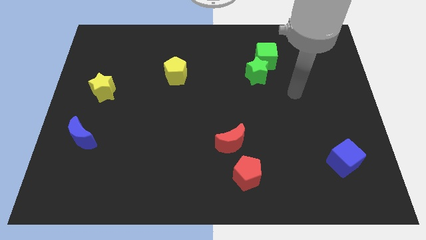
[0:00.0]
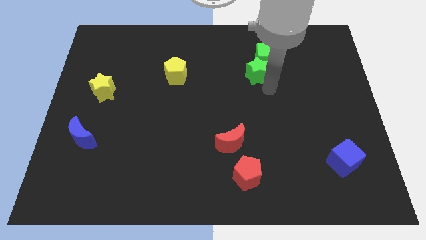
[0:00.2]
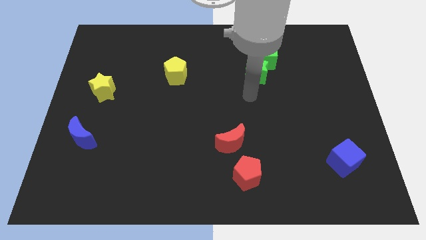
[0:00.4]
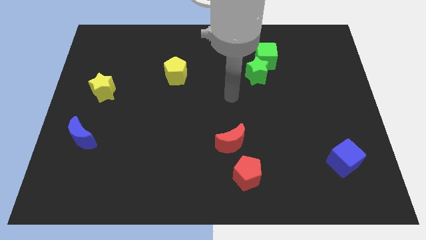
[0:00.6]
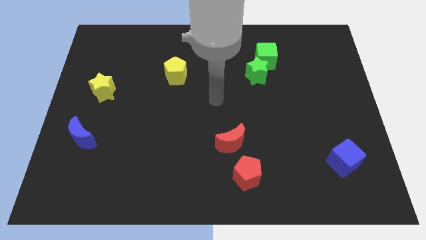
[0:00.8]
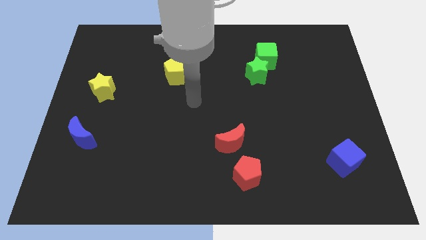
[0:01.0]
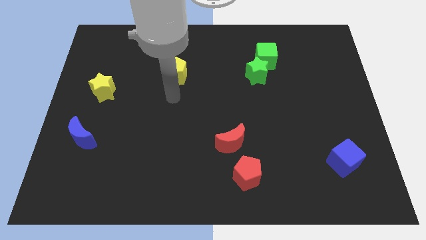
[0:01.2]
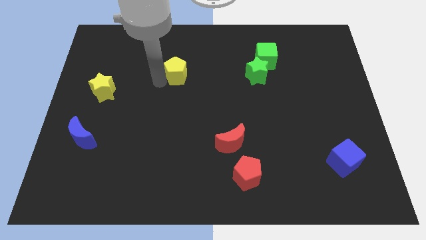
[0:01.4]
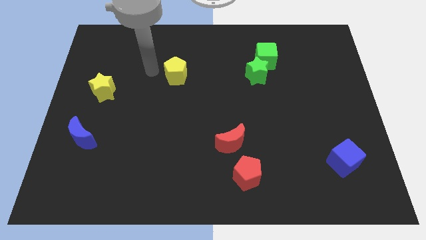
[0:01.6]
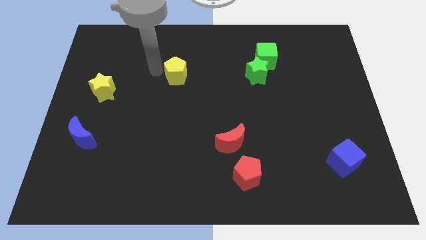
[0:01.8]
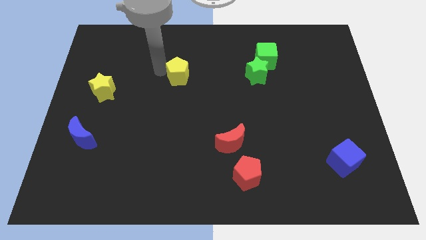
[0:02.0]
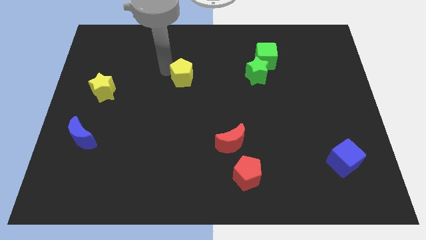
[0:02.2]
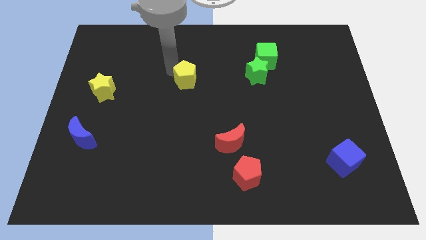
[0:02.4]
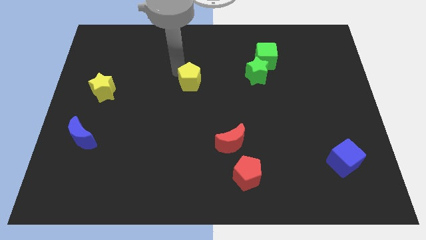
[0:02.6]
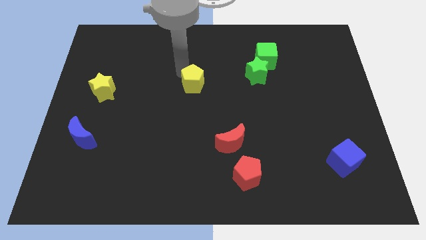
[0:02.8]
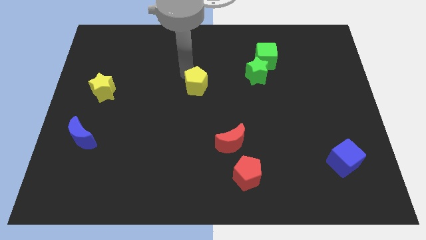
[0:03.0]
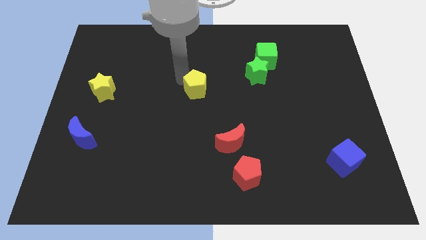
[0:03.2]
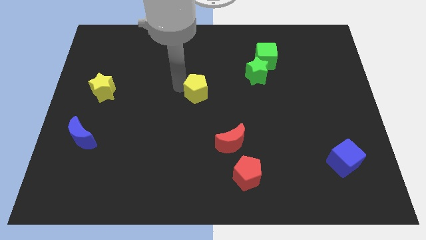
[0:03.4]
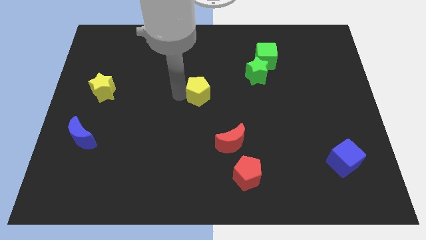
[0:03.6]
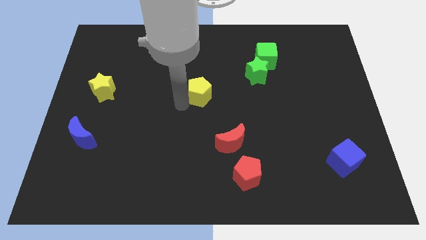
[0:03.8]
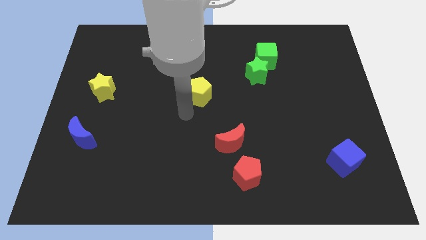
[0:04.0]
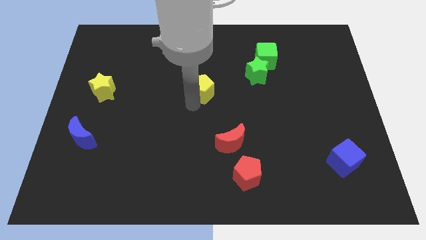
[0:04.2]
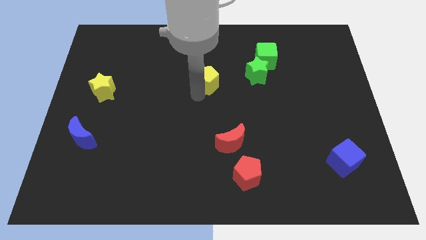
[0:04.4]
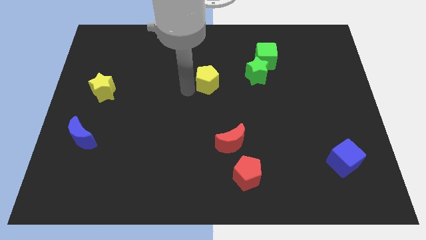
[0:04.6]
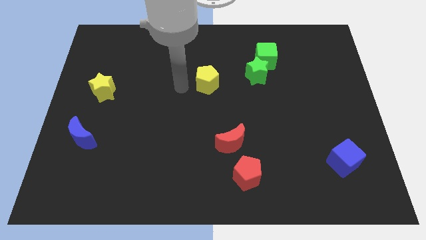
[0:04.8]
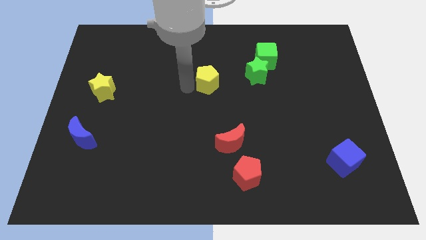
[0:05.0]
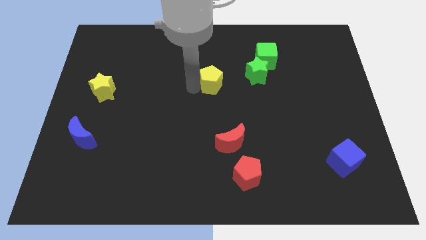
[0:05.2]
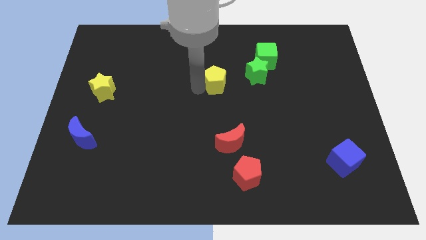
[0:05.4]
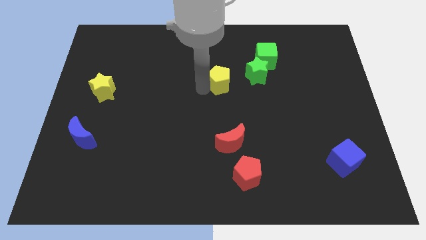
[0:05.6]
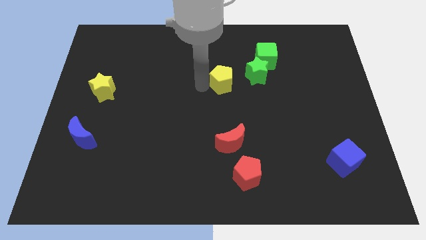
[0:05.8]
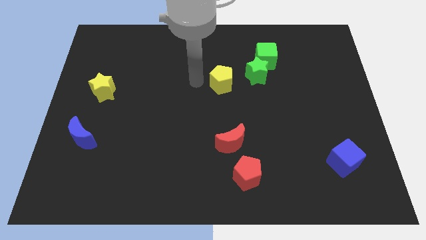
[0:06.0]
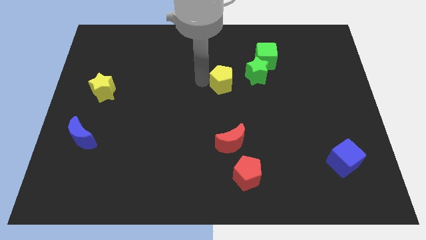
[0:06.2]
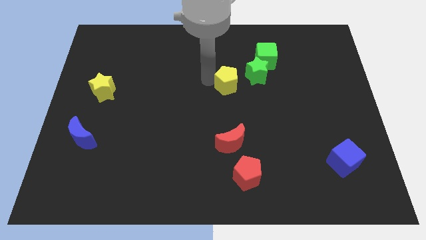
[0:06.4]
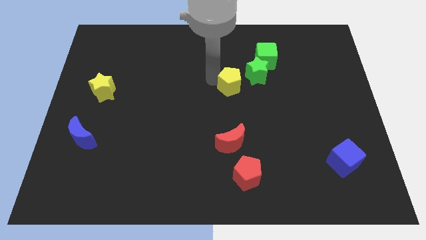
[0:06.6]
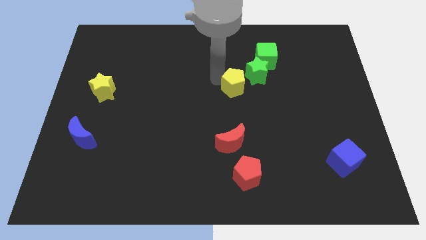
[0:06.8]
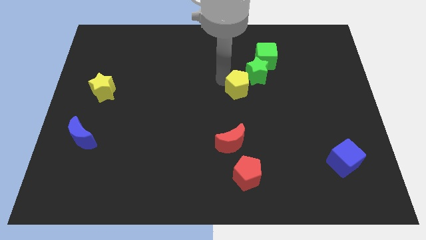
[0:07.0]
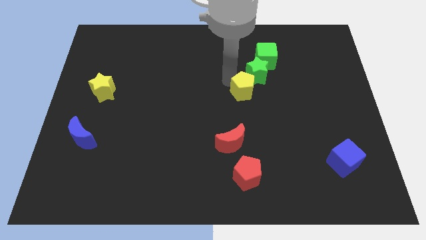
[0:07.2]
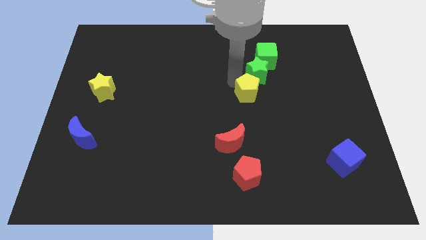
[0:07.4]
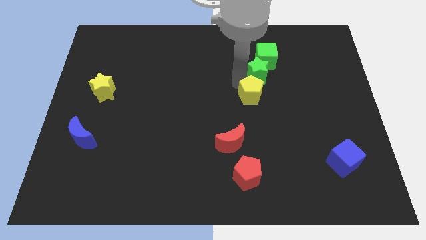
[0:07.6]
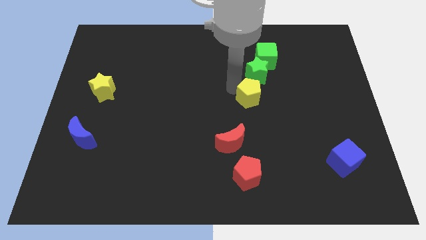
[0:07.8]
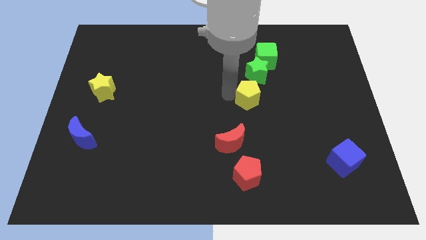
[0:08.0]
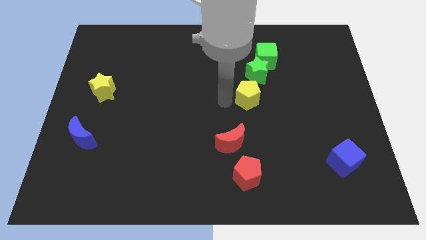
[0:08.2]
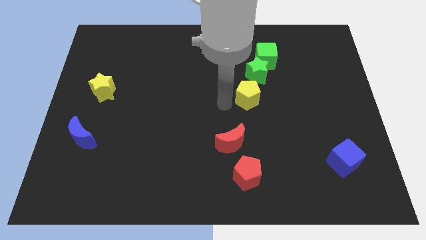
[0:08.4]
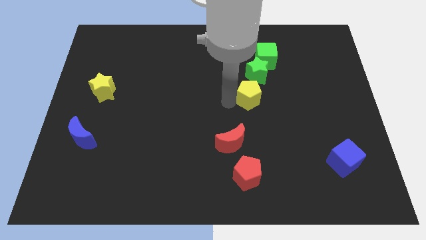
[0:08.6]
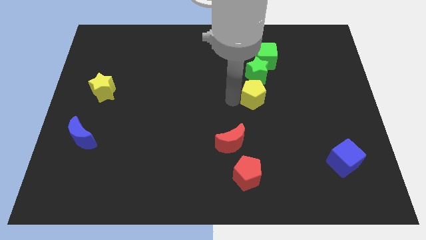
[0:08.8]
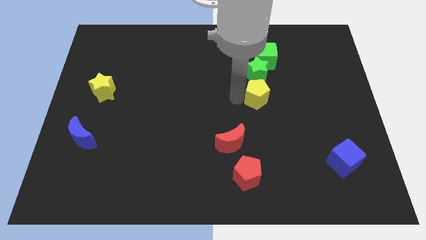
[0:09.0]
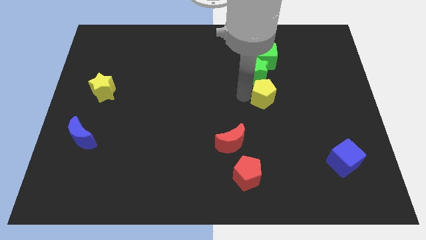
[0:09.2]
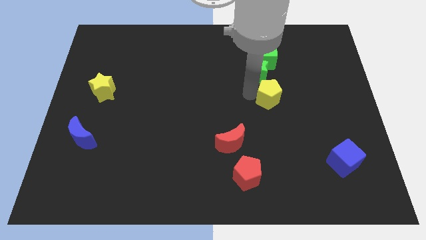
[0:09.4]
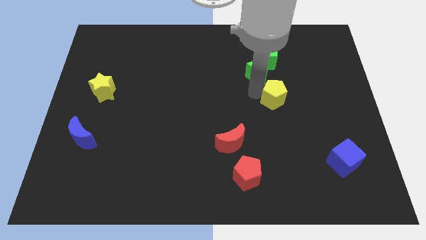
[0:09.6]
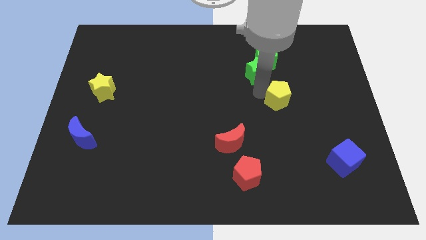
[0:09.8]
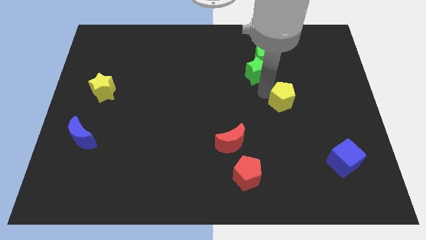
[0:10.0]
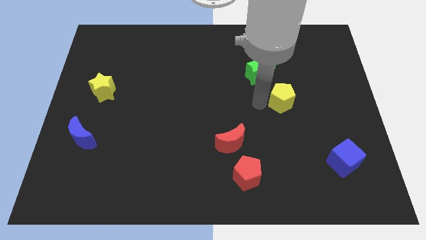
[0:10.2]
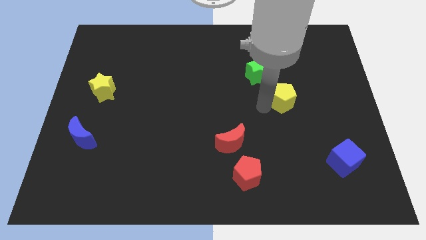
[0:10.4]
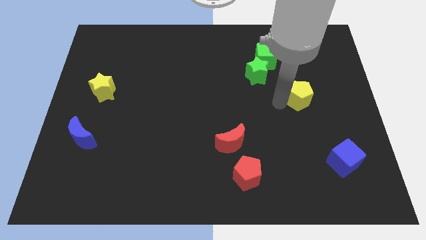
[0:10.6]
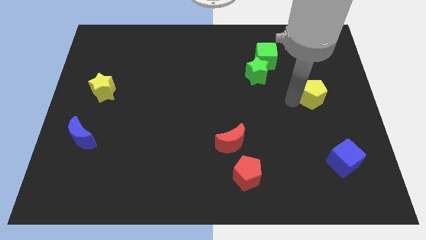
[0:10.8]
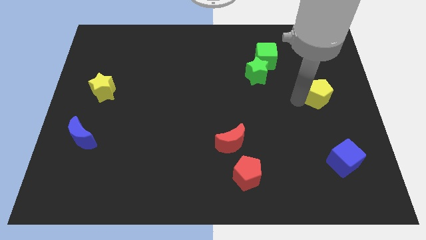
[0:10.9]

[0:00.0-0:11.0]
slide the yellow pentagon to the center right

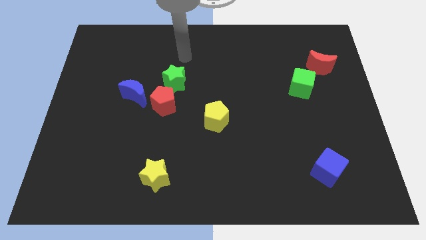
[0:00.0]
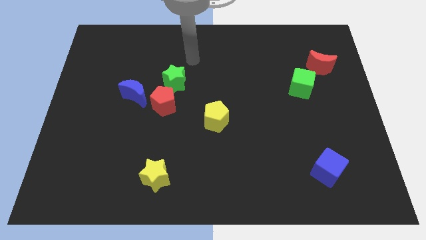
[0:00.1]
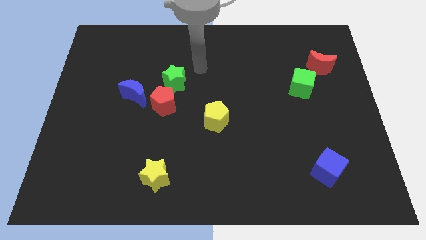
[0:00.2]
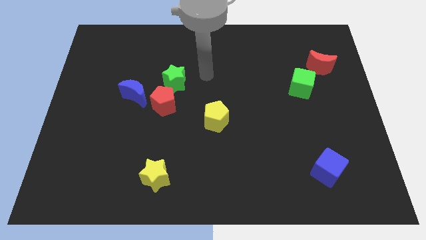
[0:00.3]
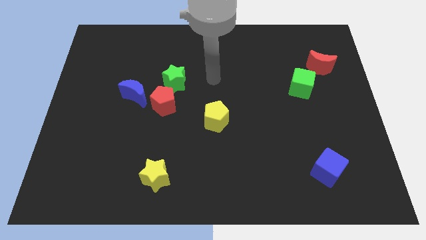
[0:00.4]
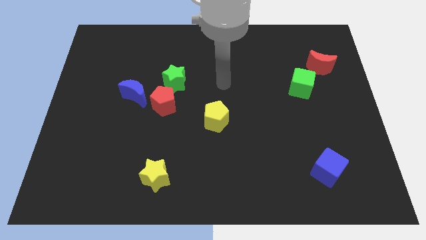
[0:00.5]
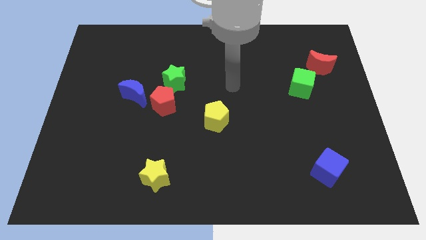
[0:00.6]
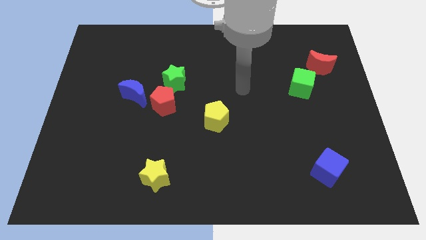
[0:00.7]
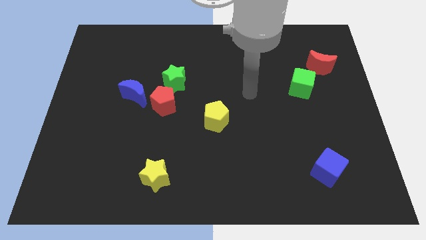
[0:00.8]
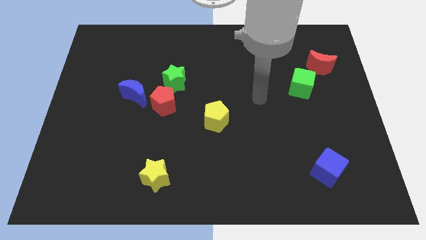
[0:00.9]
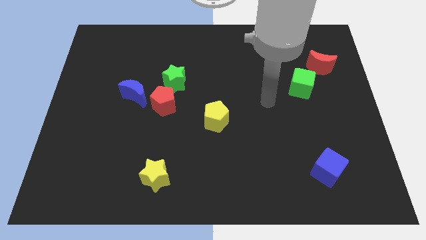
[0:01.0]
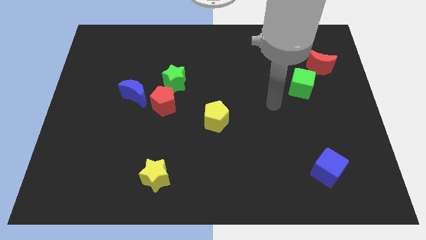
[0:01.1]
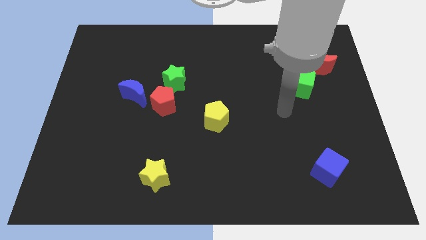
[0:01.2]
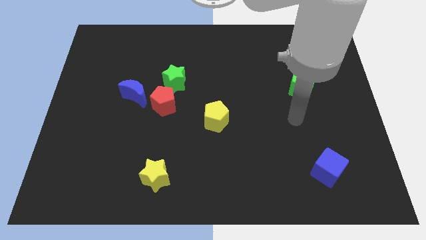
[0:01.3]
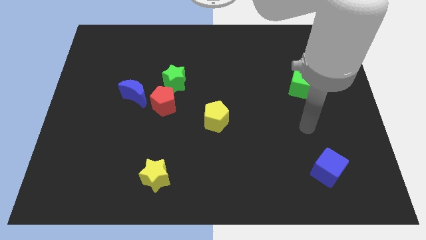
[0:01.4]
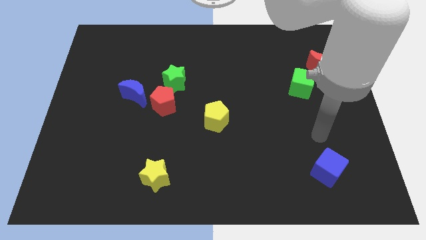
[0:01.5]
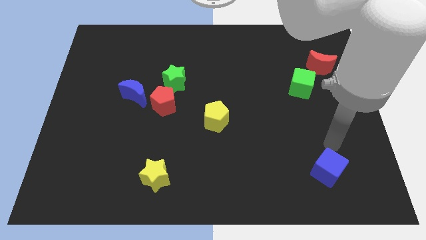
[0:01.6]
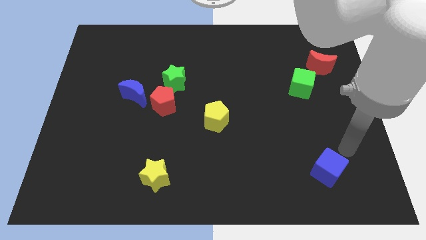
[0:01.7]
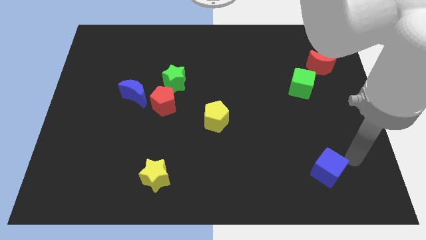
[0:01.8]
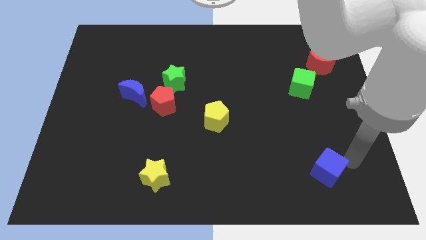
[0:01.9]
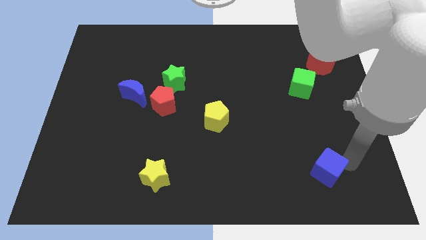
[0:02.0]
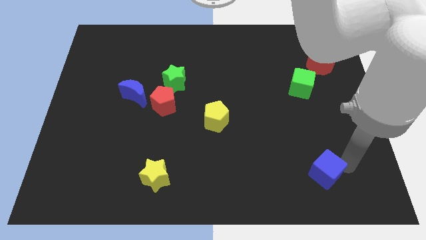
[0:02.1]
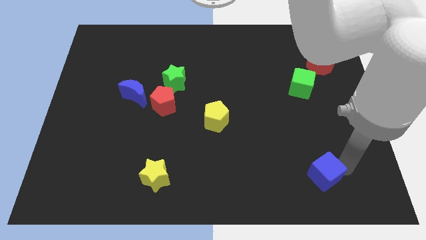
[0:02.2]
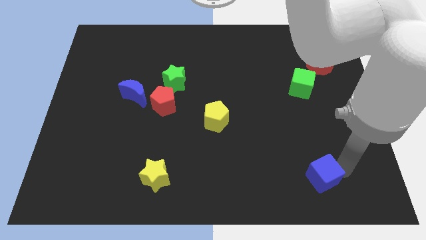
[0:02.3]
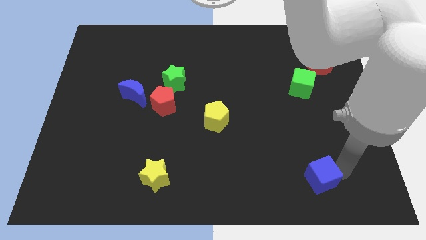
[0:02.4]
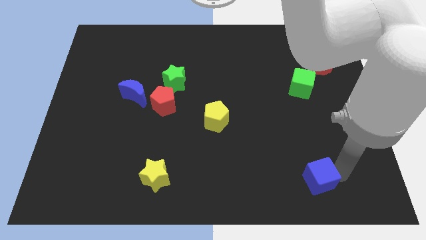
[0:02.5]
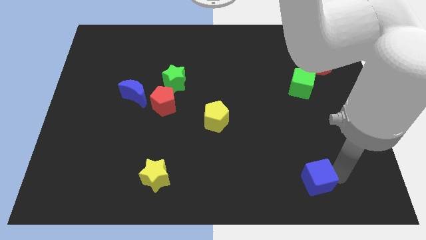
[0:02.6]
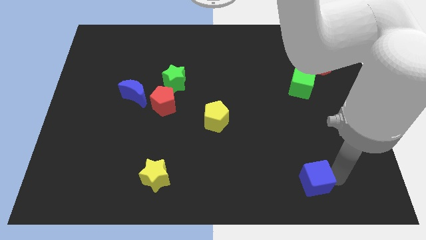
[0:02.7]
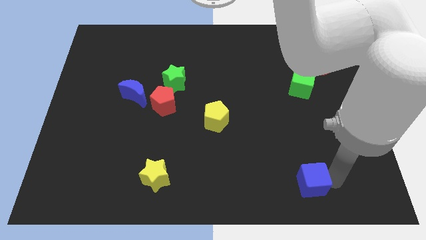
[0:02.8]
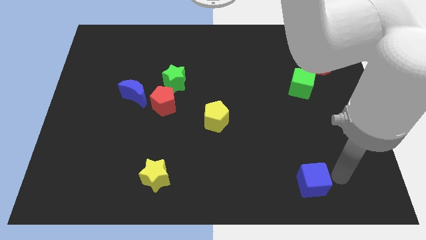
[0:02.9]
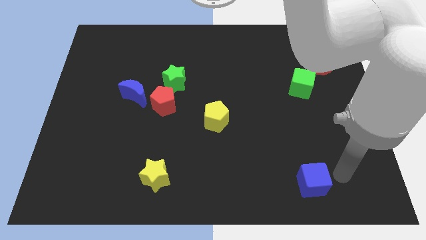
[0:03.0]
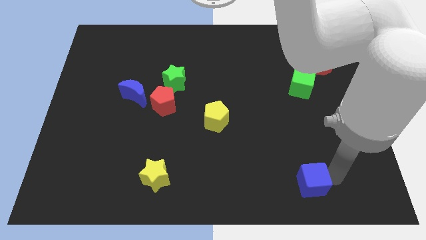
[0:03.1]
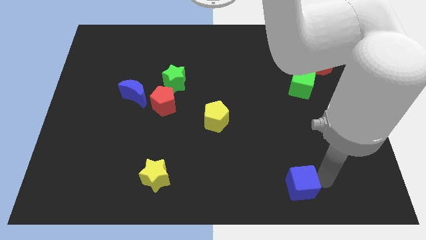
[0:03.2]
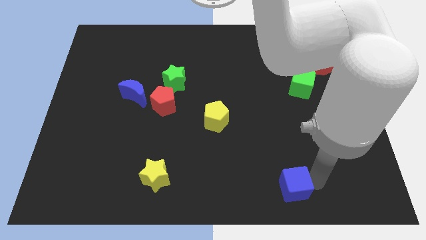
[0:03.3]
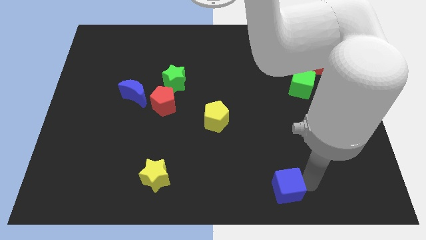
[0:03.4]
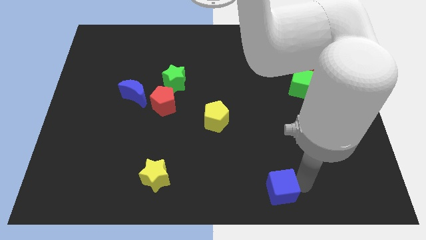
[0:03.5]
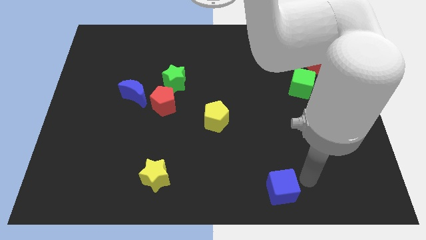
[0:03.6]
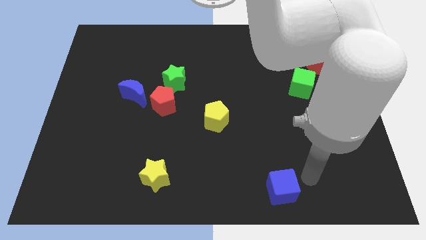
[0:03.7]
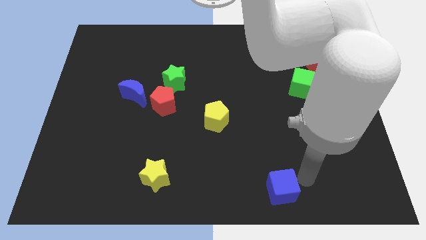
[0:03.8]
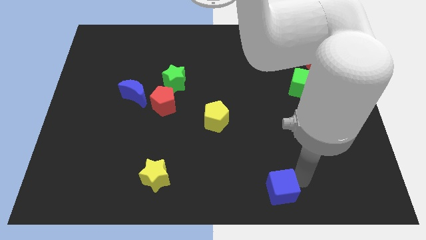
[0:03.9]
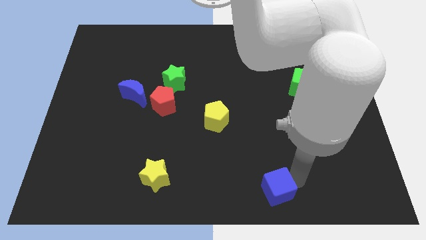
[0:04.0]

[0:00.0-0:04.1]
push the blue cube to the bottom
